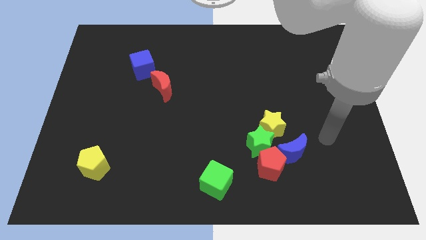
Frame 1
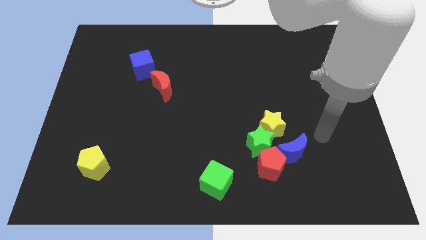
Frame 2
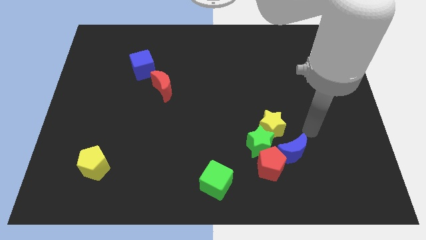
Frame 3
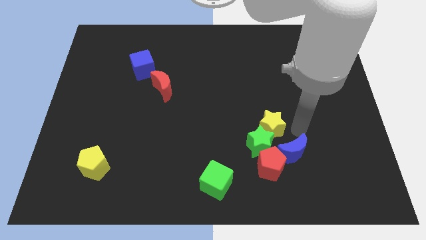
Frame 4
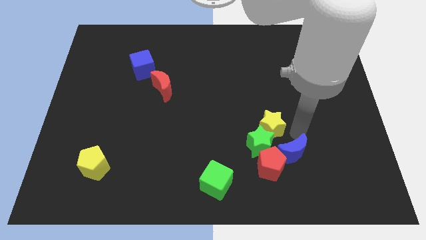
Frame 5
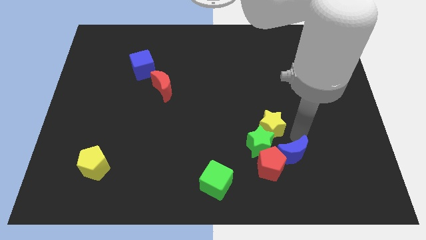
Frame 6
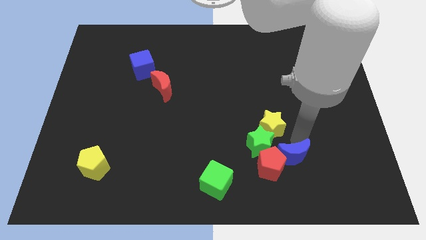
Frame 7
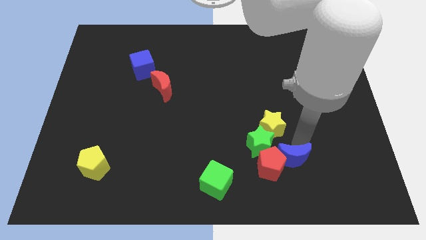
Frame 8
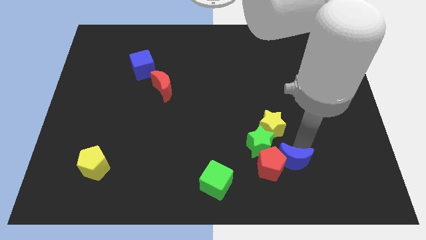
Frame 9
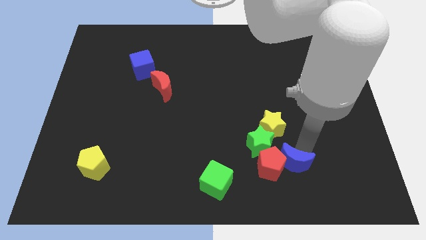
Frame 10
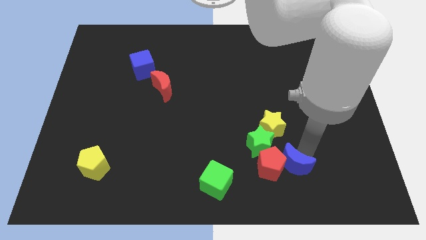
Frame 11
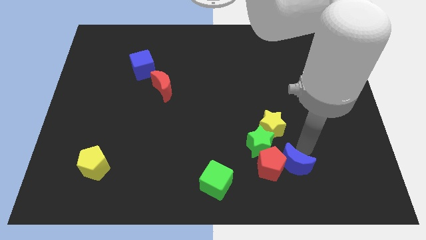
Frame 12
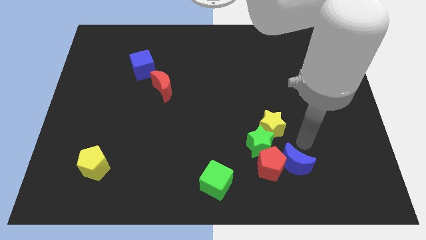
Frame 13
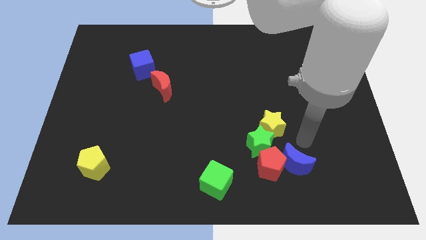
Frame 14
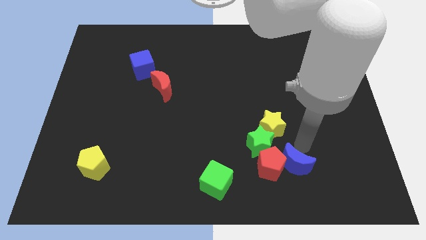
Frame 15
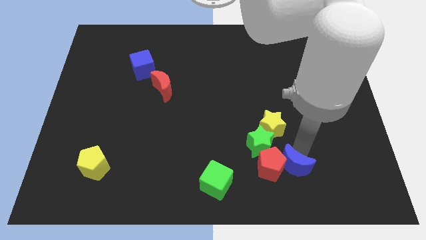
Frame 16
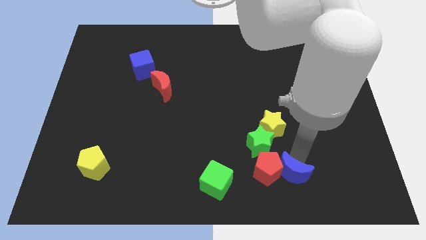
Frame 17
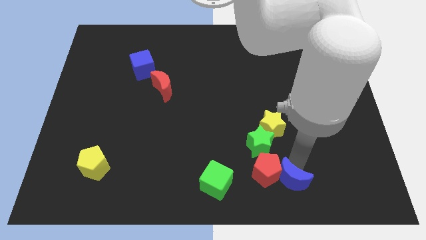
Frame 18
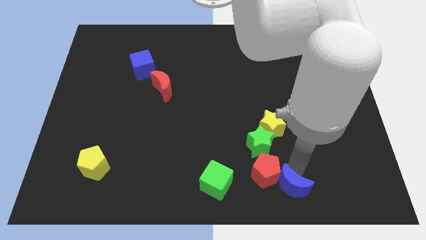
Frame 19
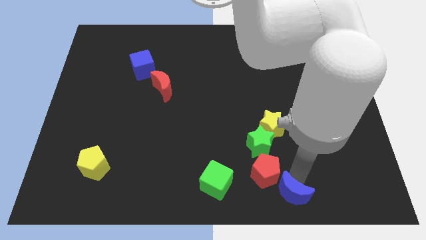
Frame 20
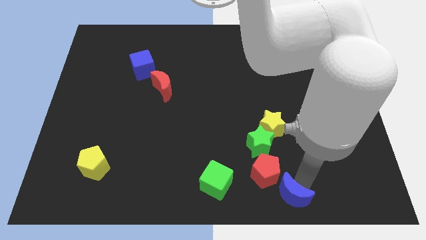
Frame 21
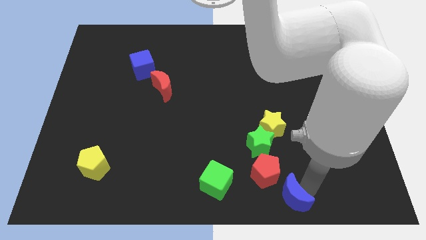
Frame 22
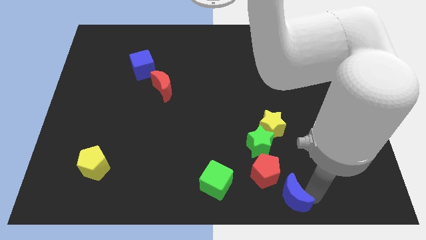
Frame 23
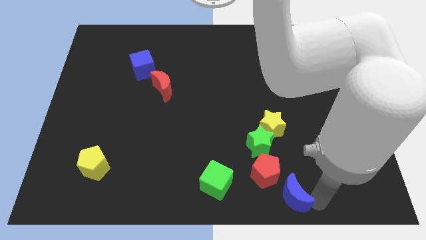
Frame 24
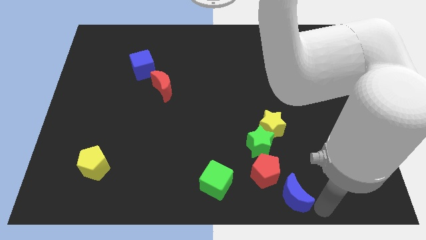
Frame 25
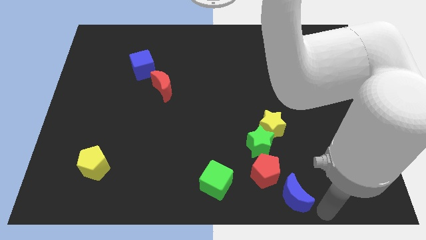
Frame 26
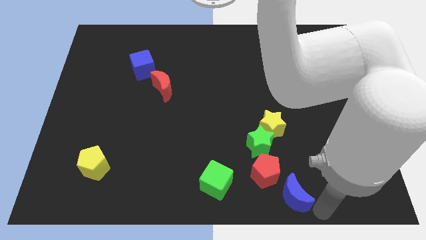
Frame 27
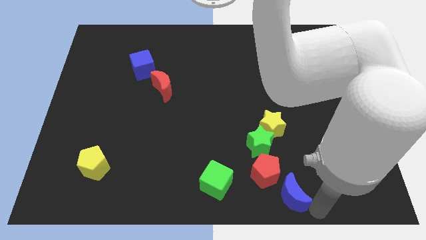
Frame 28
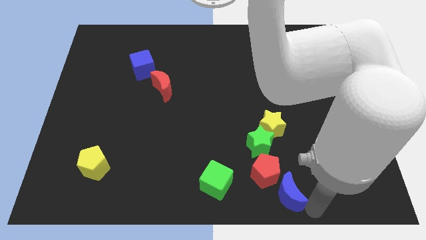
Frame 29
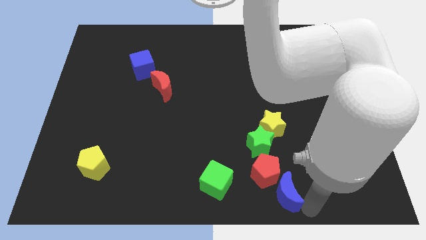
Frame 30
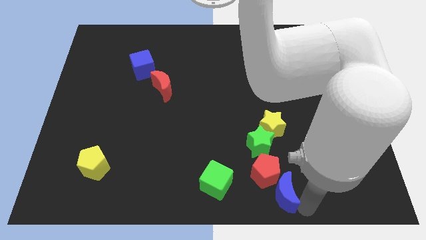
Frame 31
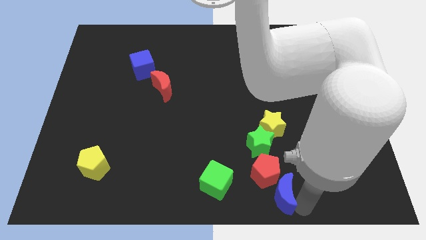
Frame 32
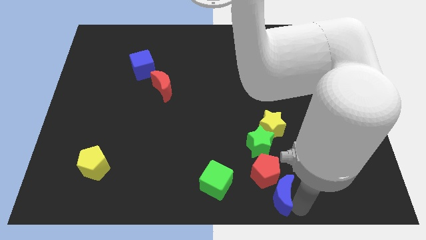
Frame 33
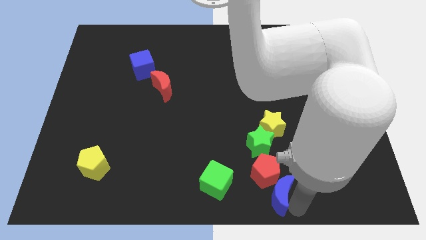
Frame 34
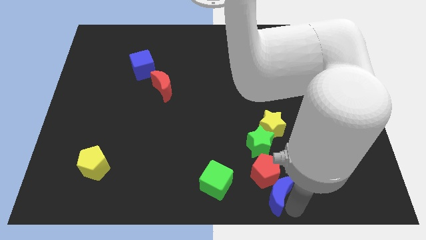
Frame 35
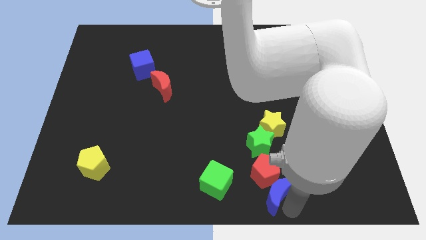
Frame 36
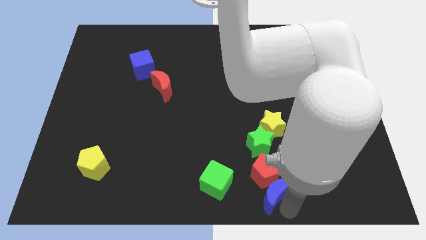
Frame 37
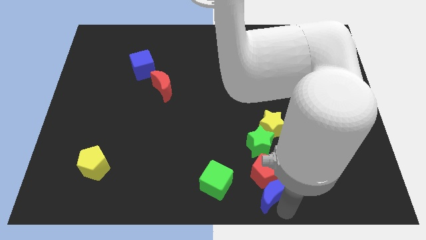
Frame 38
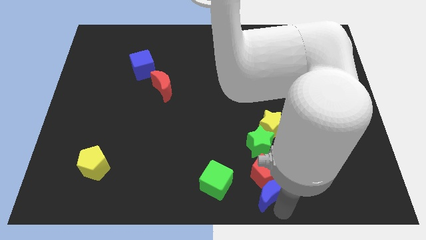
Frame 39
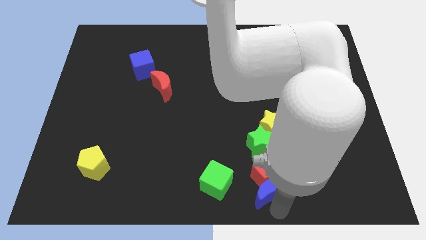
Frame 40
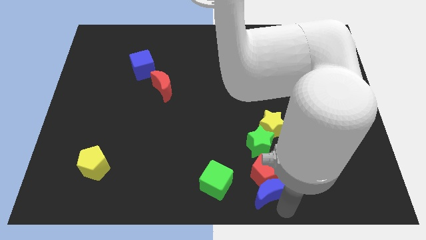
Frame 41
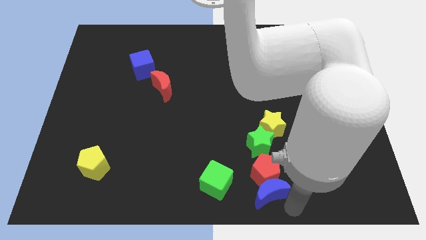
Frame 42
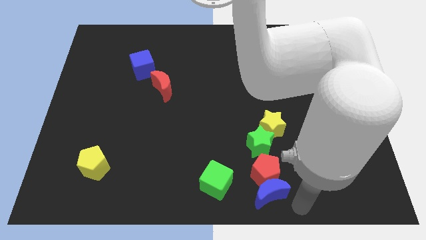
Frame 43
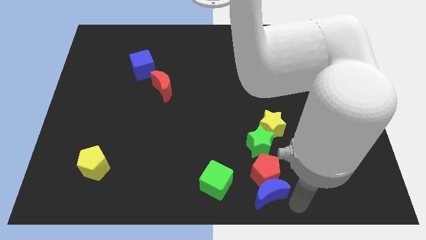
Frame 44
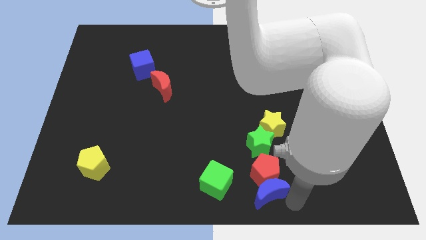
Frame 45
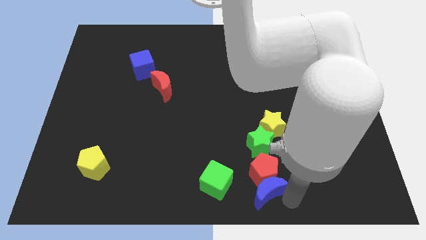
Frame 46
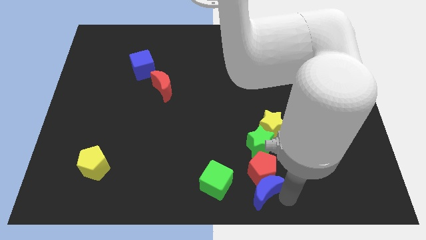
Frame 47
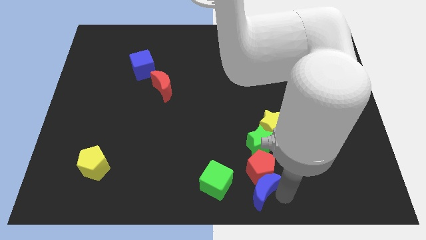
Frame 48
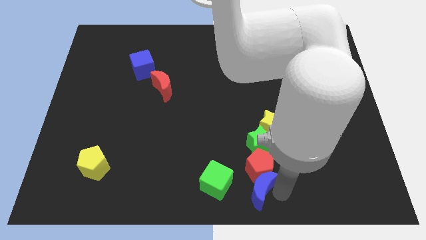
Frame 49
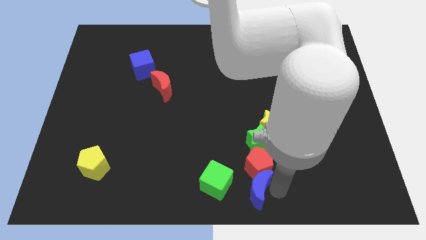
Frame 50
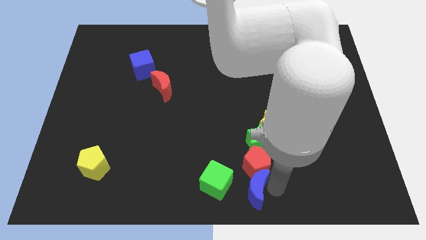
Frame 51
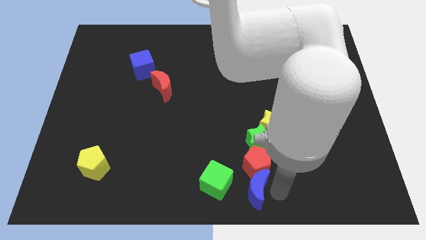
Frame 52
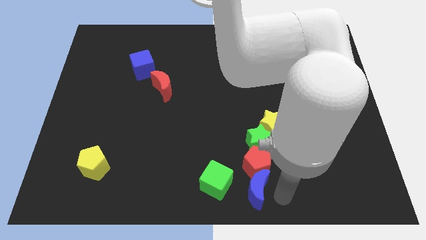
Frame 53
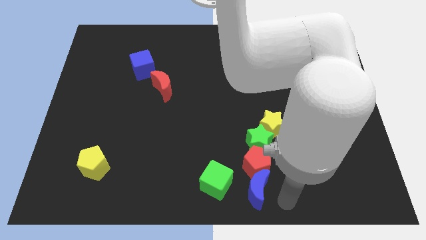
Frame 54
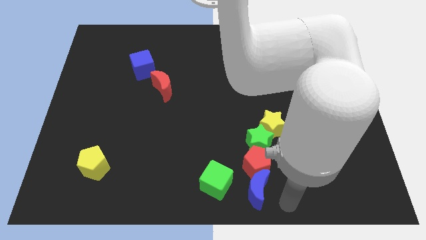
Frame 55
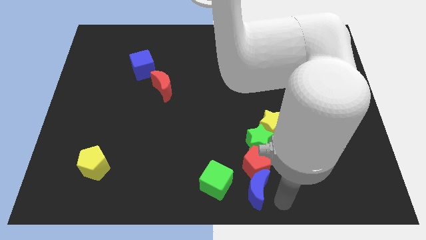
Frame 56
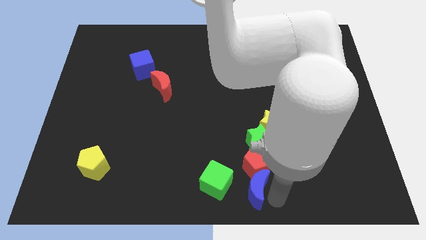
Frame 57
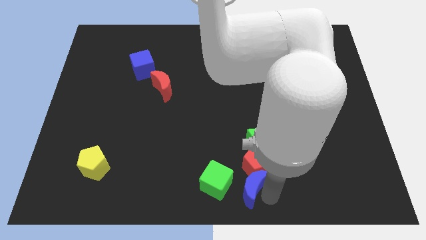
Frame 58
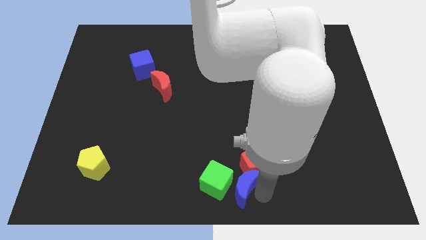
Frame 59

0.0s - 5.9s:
move the blue moon a bit to the left

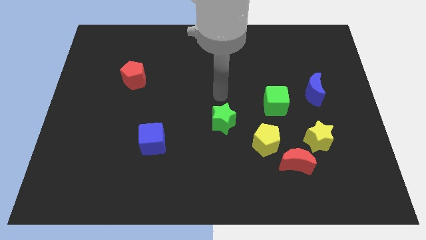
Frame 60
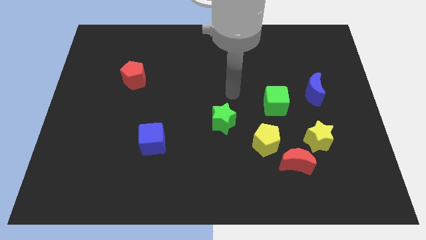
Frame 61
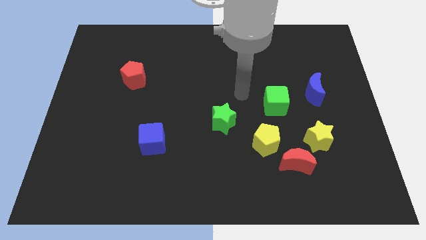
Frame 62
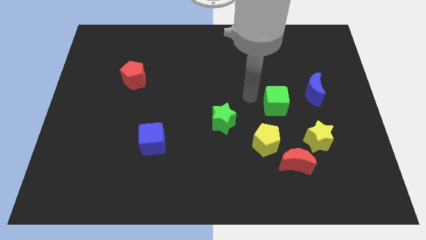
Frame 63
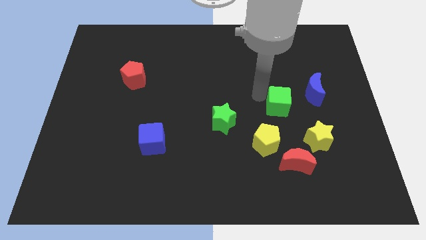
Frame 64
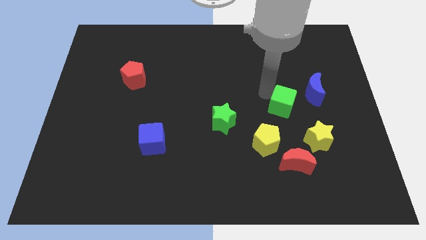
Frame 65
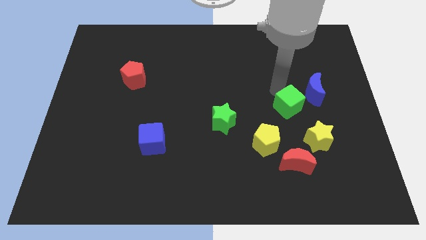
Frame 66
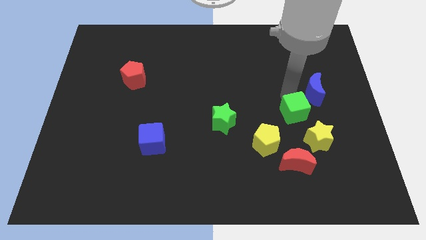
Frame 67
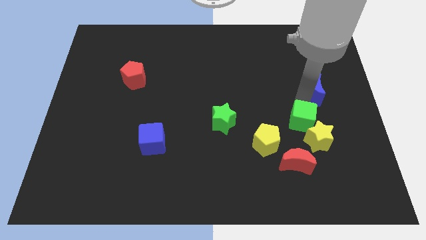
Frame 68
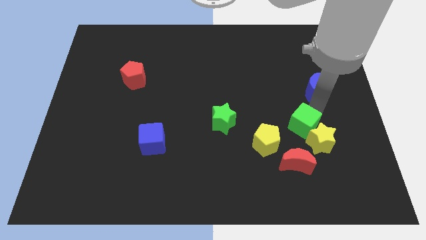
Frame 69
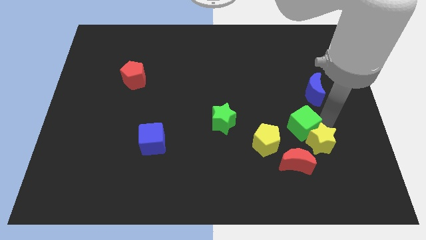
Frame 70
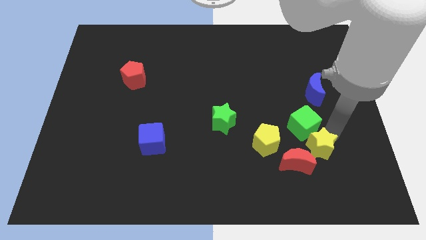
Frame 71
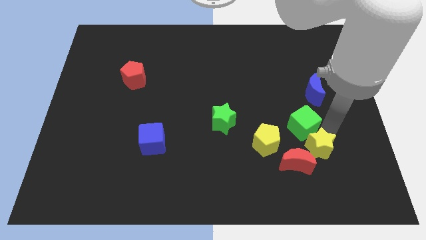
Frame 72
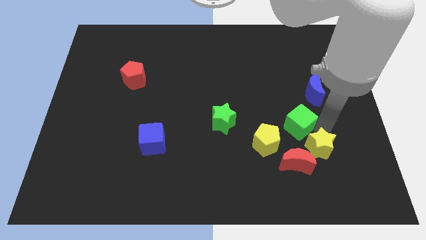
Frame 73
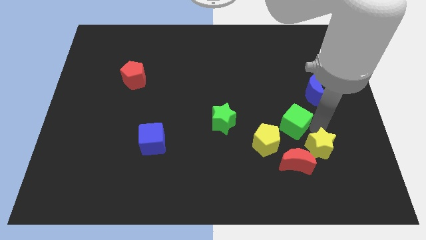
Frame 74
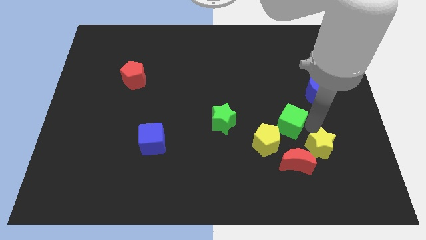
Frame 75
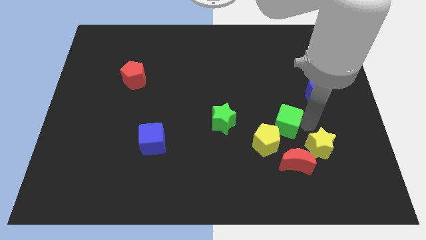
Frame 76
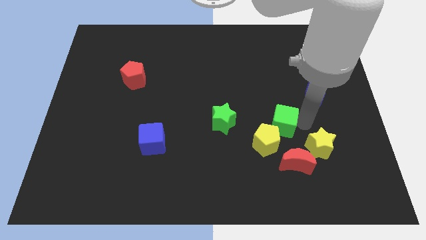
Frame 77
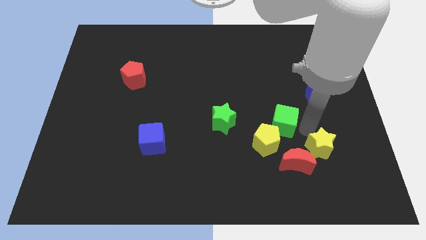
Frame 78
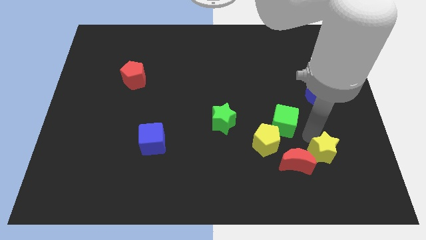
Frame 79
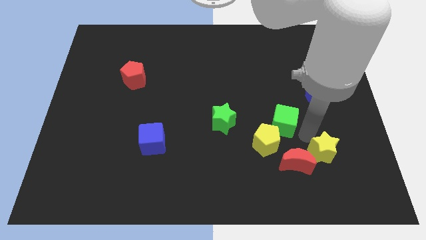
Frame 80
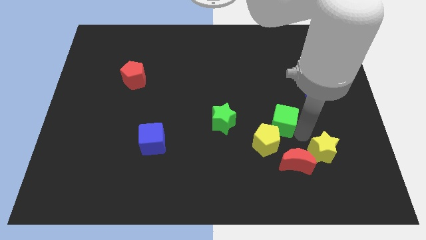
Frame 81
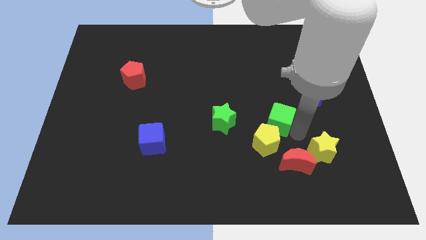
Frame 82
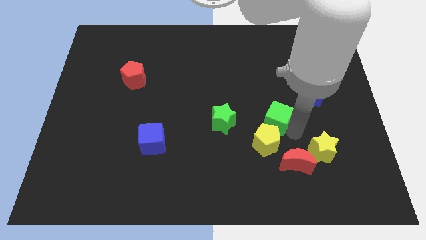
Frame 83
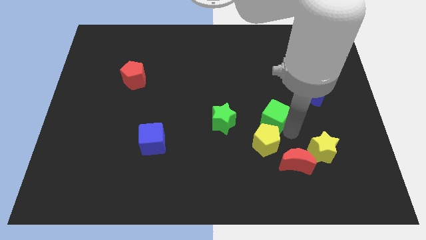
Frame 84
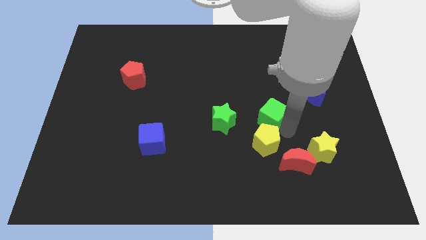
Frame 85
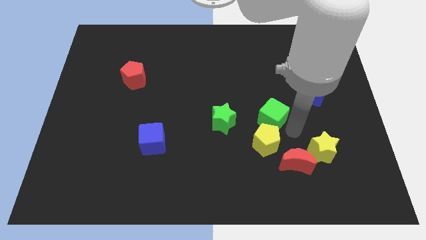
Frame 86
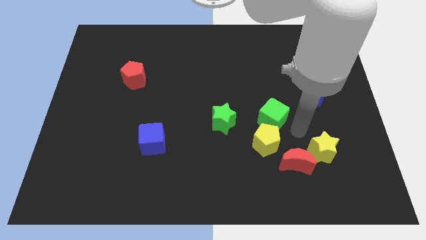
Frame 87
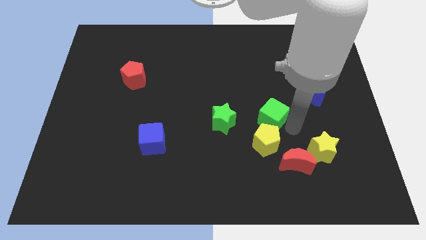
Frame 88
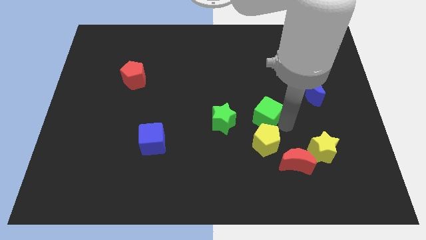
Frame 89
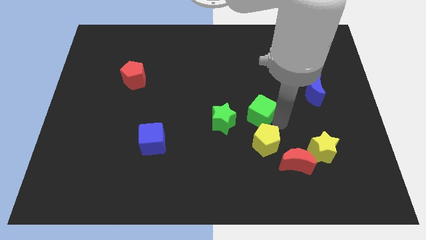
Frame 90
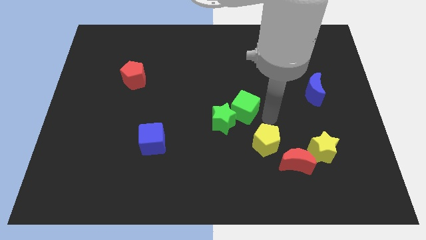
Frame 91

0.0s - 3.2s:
move the green cube left a bit
